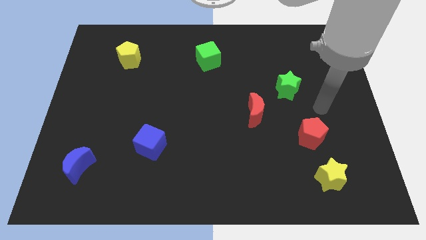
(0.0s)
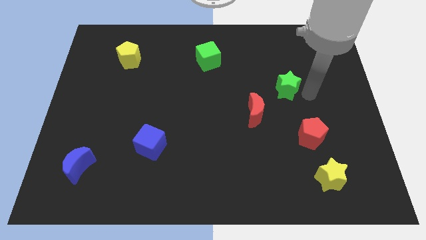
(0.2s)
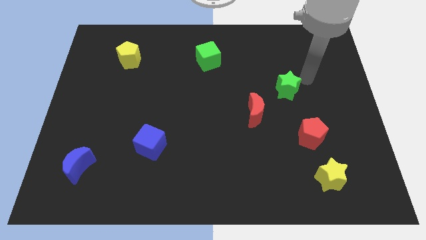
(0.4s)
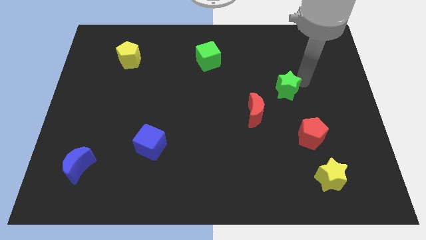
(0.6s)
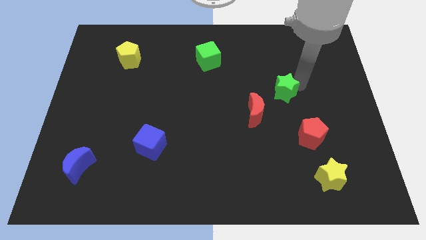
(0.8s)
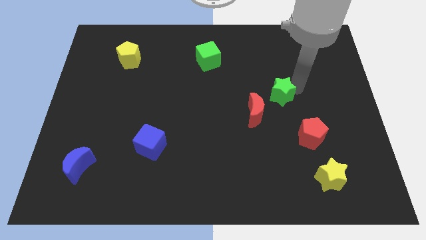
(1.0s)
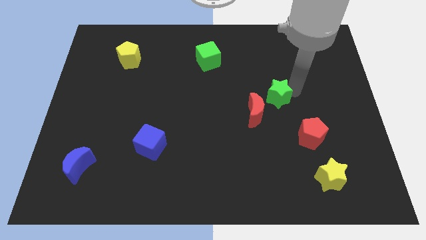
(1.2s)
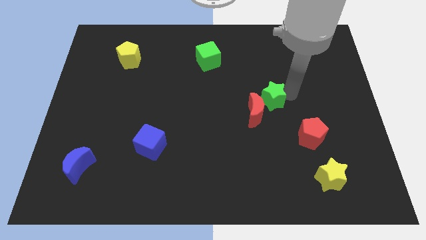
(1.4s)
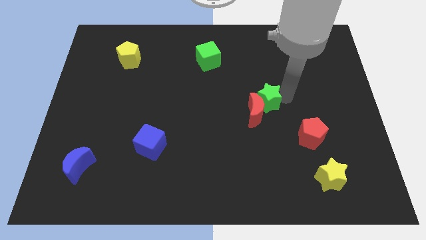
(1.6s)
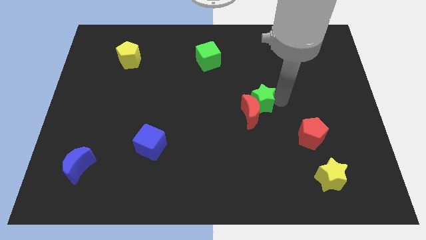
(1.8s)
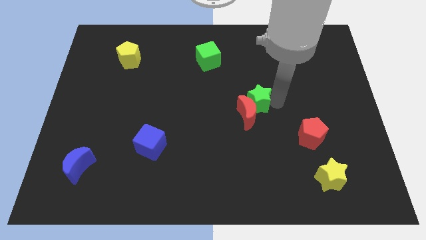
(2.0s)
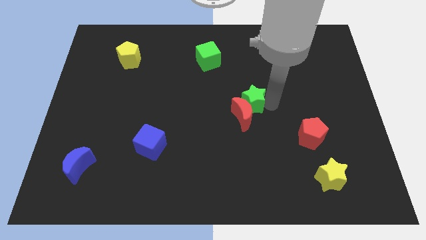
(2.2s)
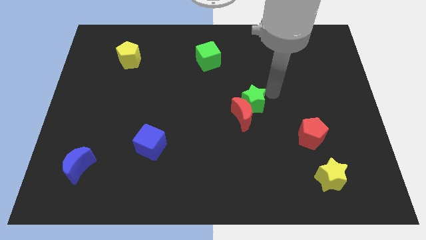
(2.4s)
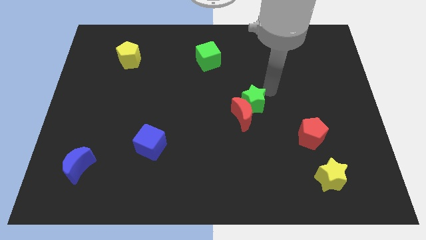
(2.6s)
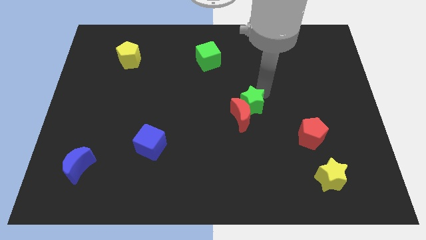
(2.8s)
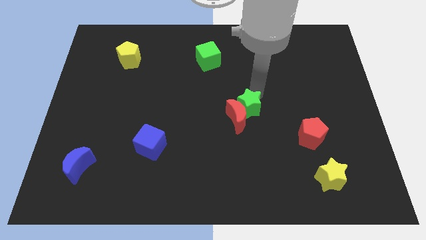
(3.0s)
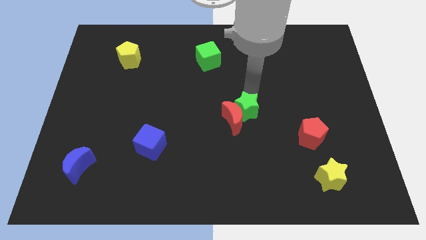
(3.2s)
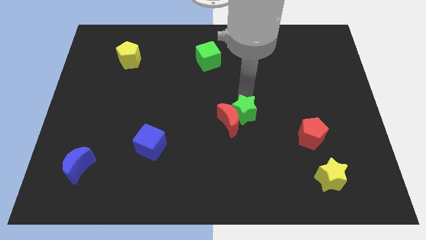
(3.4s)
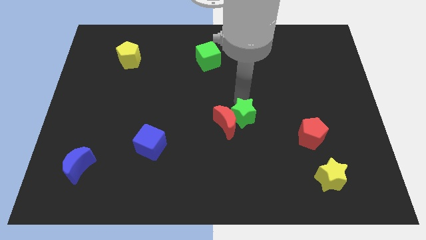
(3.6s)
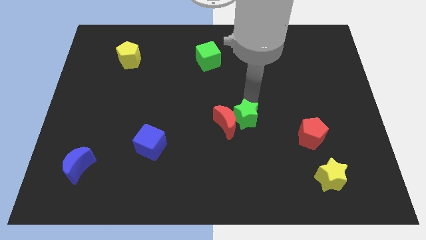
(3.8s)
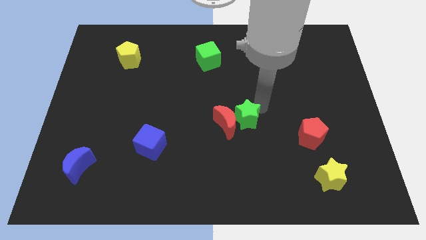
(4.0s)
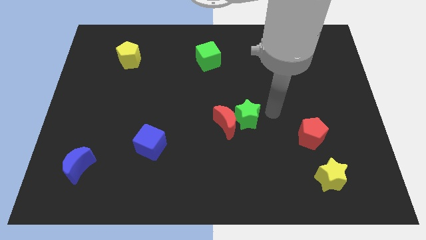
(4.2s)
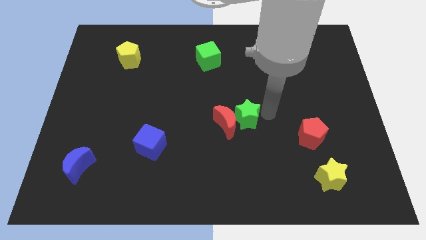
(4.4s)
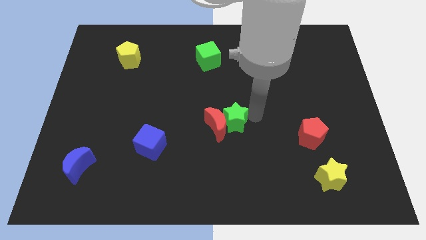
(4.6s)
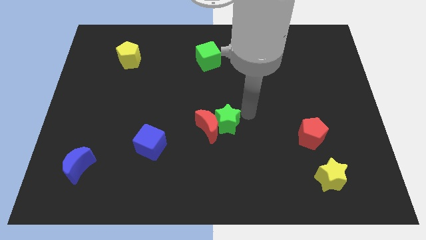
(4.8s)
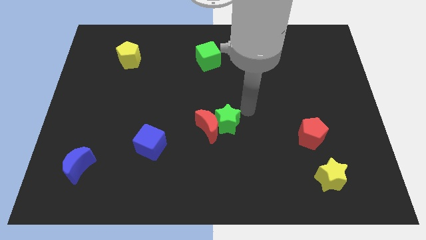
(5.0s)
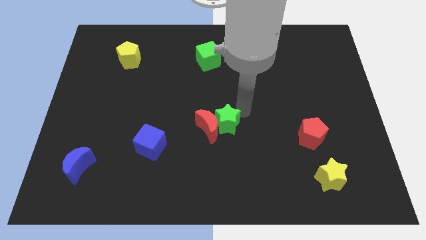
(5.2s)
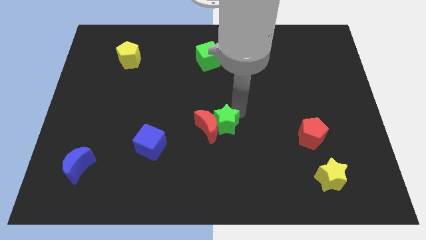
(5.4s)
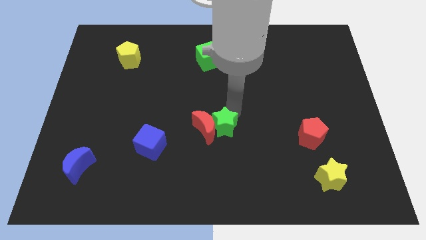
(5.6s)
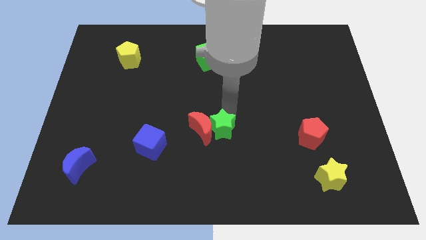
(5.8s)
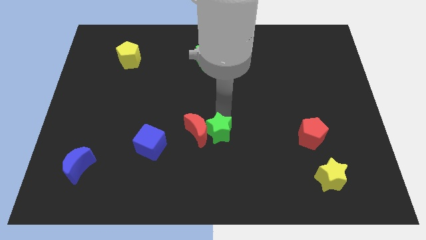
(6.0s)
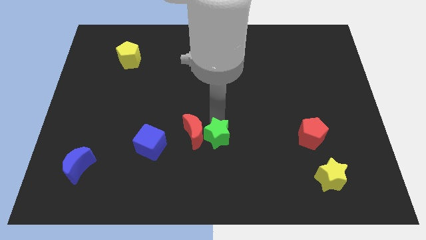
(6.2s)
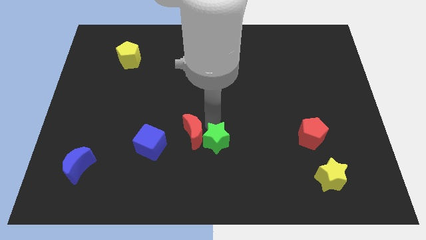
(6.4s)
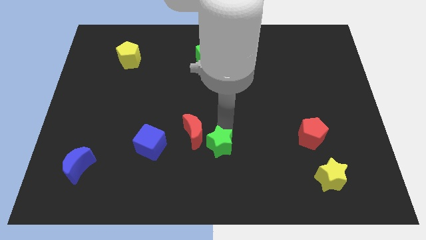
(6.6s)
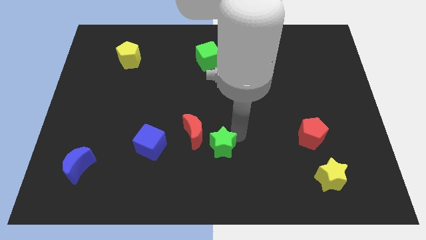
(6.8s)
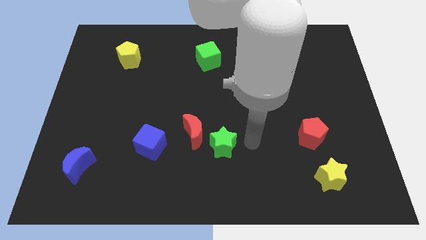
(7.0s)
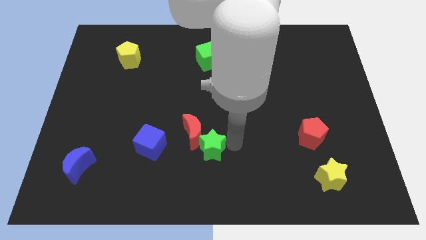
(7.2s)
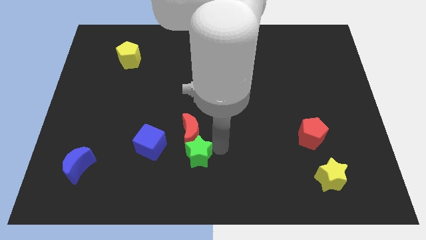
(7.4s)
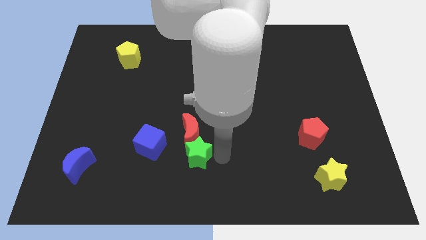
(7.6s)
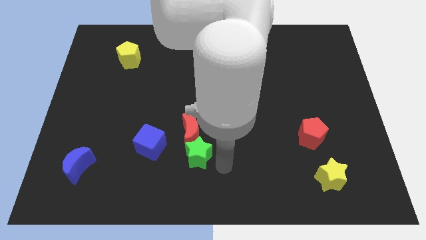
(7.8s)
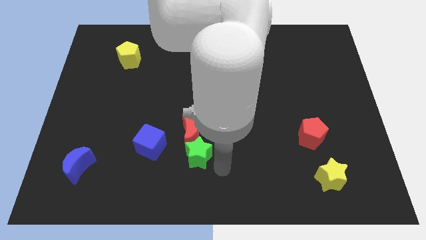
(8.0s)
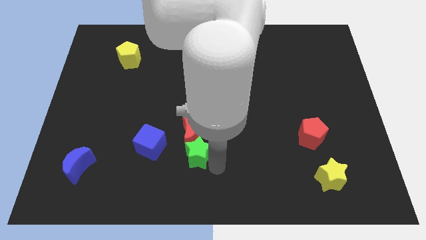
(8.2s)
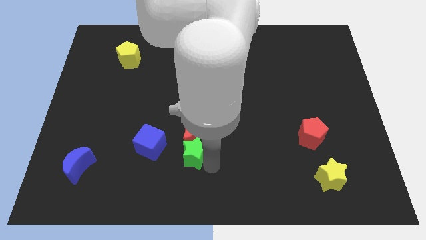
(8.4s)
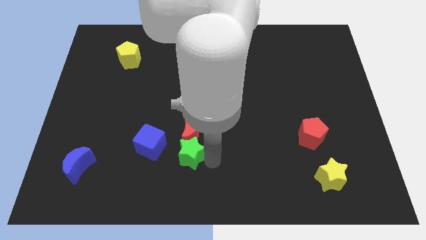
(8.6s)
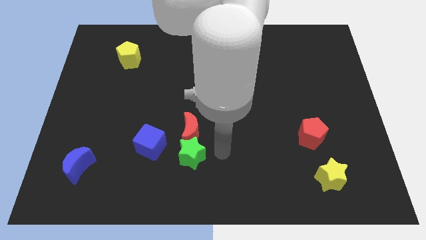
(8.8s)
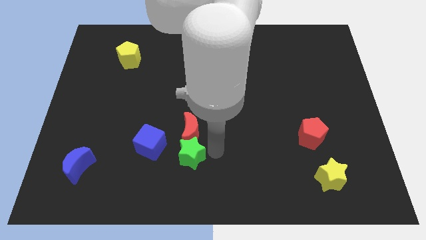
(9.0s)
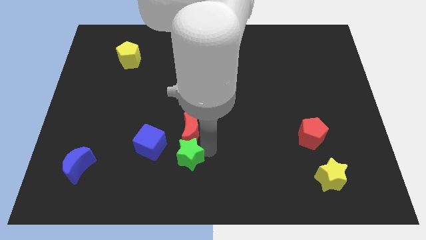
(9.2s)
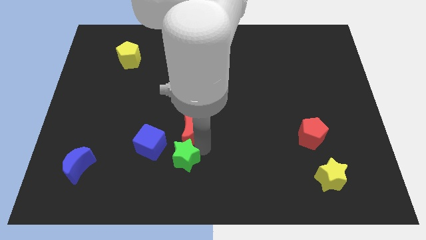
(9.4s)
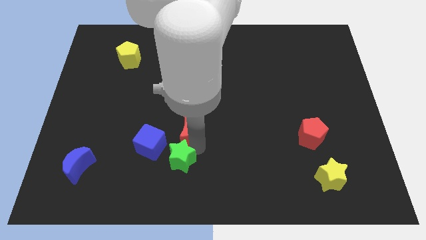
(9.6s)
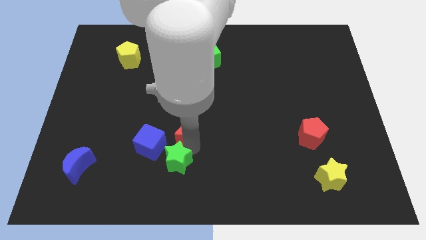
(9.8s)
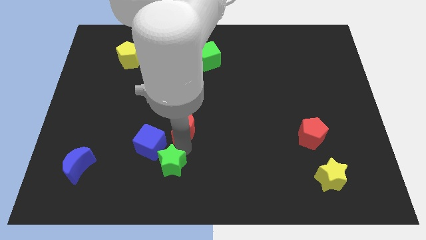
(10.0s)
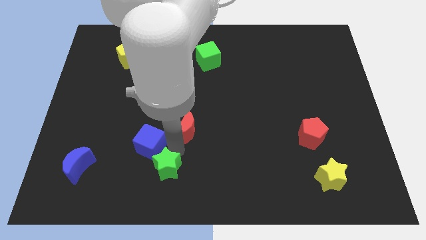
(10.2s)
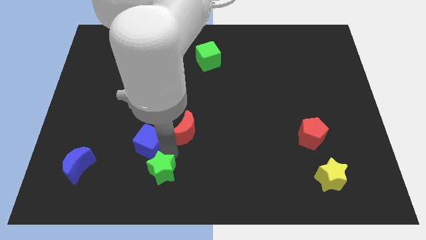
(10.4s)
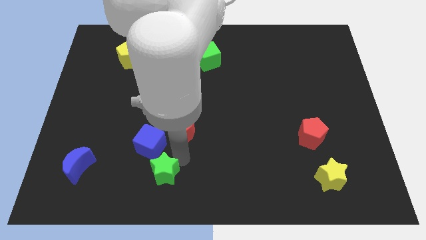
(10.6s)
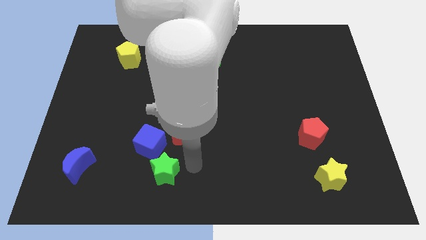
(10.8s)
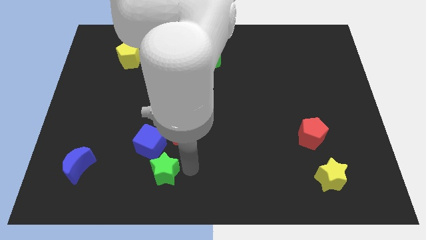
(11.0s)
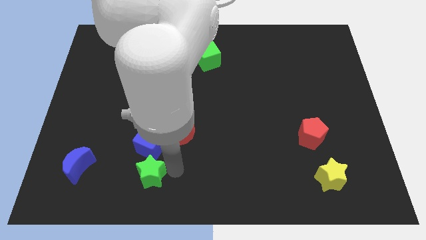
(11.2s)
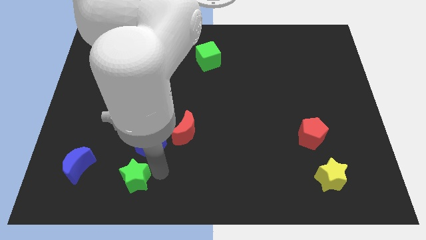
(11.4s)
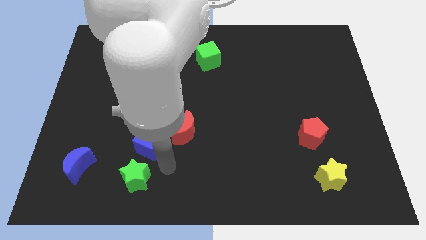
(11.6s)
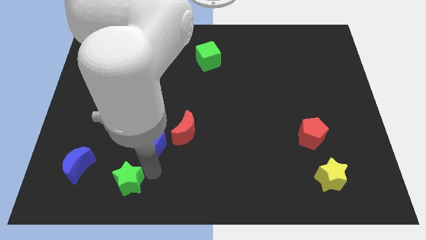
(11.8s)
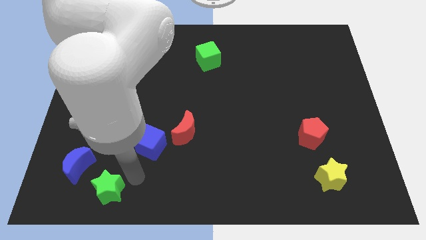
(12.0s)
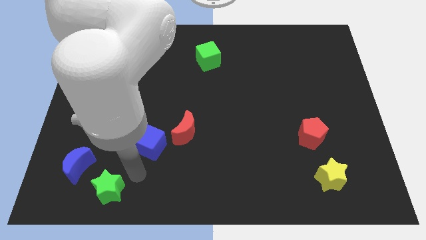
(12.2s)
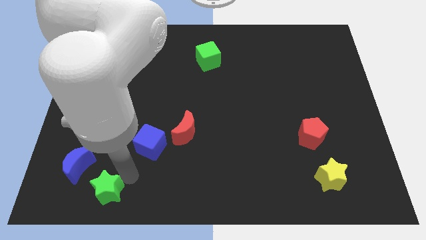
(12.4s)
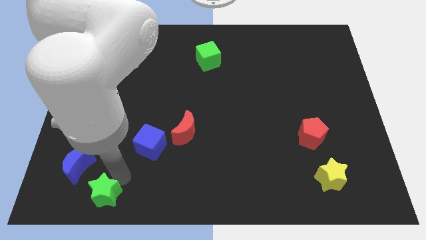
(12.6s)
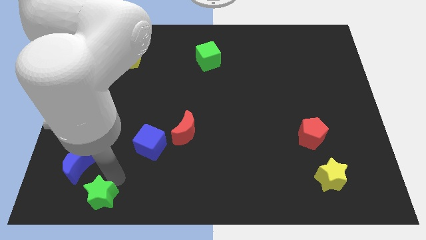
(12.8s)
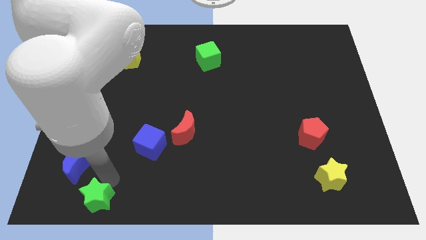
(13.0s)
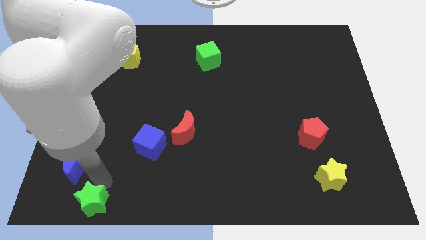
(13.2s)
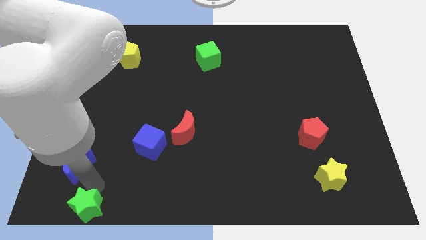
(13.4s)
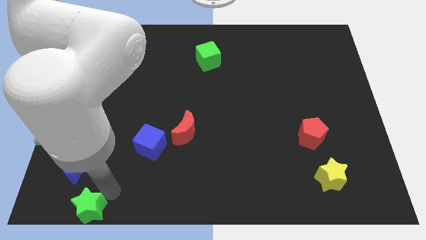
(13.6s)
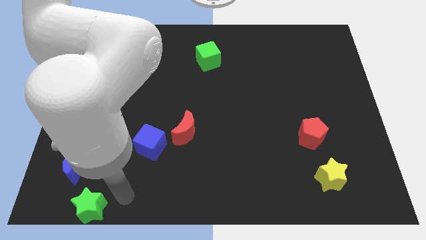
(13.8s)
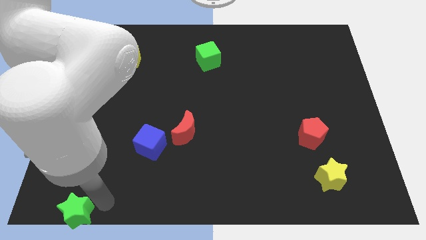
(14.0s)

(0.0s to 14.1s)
move the green star to the bottom left corner
